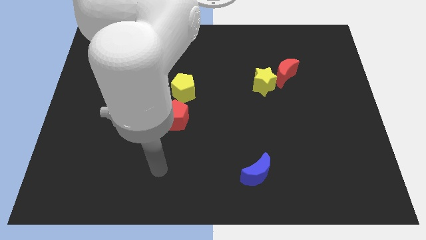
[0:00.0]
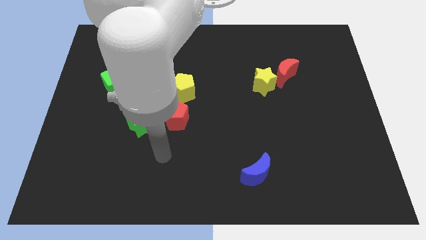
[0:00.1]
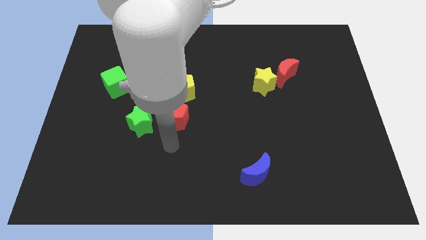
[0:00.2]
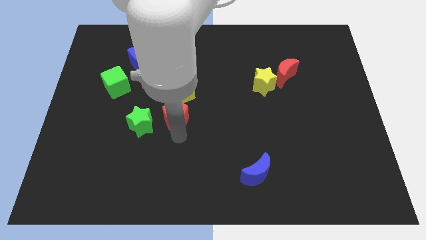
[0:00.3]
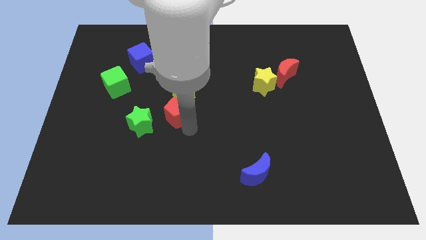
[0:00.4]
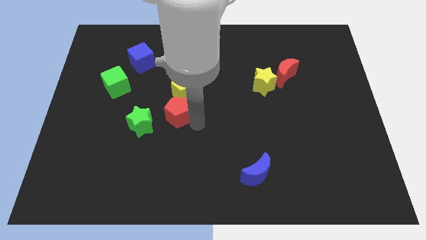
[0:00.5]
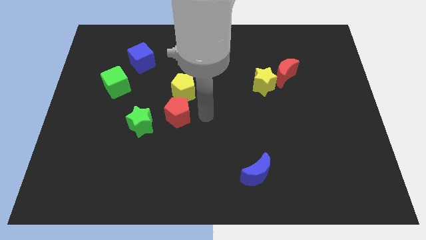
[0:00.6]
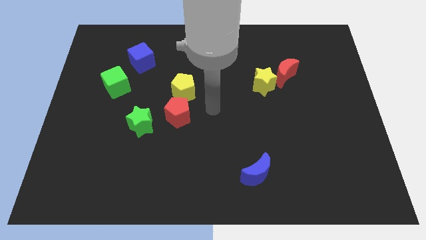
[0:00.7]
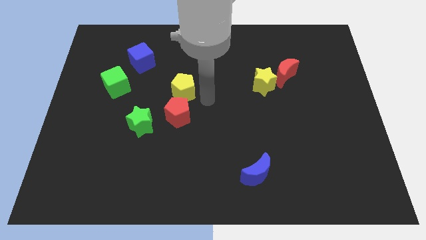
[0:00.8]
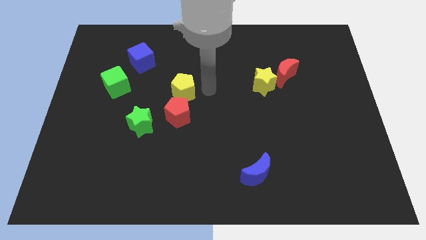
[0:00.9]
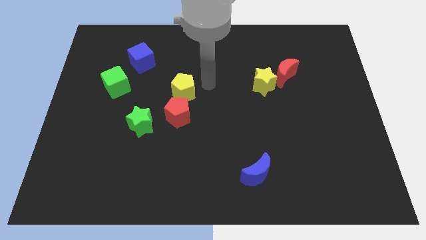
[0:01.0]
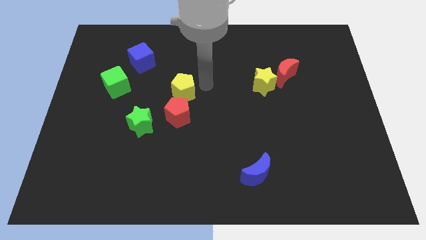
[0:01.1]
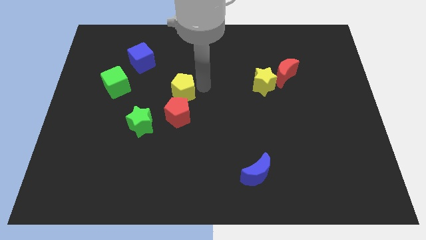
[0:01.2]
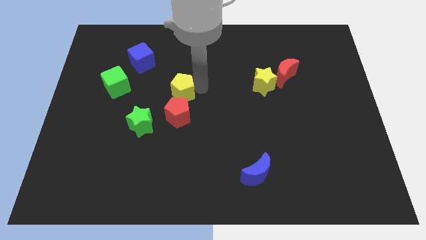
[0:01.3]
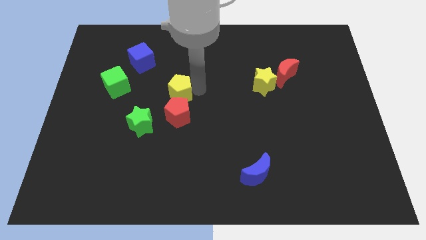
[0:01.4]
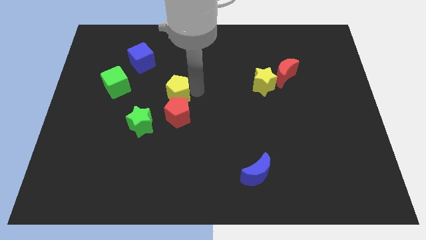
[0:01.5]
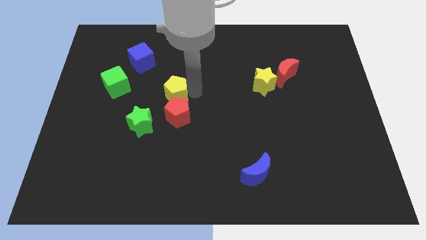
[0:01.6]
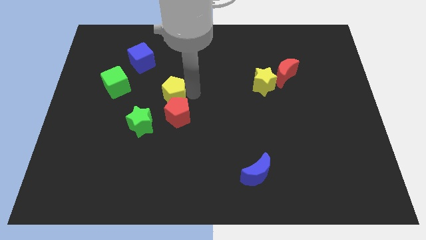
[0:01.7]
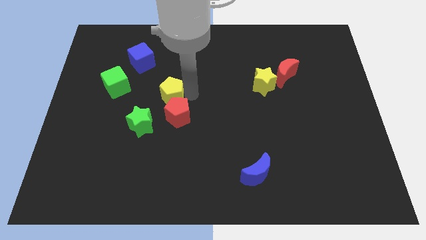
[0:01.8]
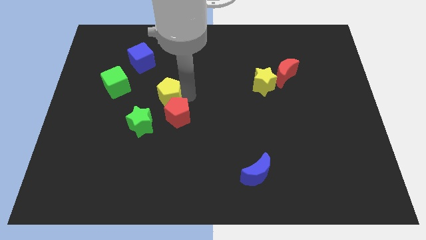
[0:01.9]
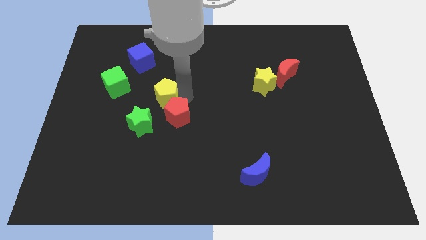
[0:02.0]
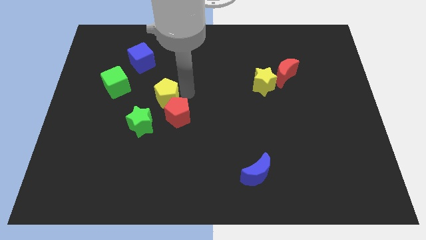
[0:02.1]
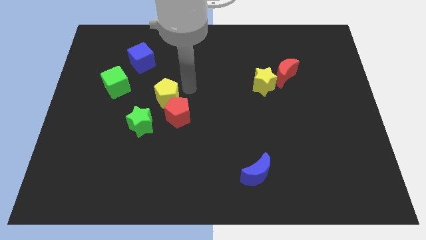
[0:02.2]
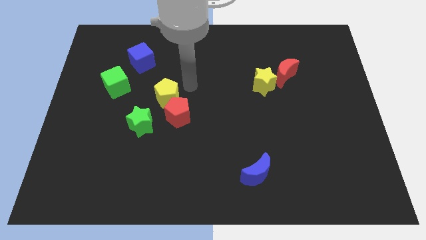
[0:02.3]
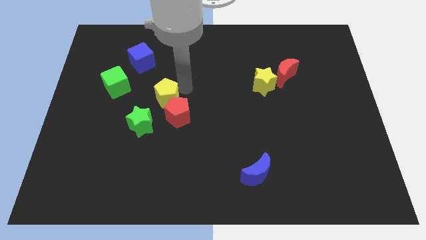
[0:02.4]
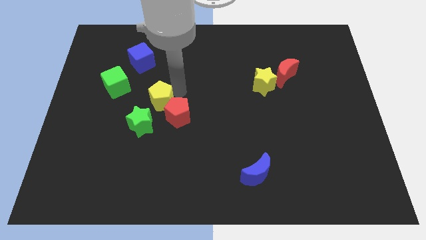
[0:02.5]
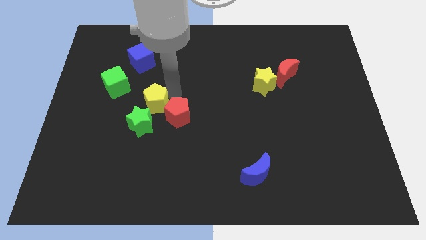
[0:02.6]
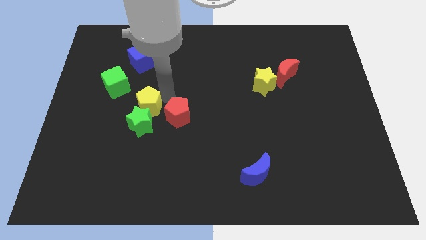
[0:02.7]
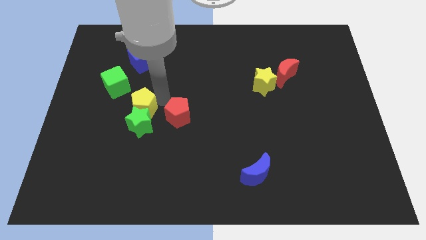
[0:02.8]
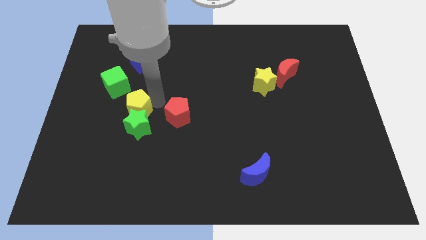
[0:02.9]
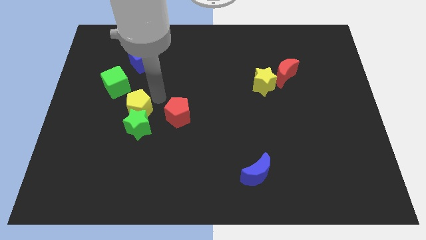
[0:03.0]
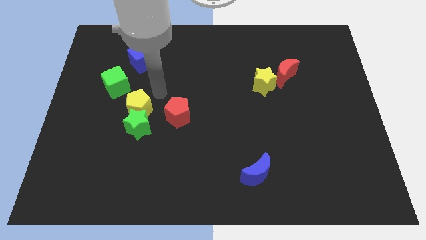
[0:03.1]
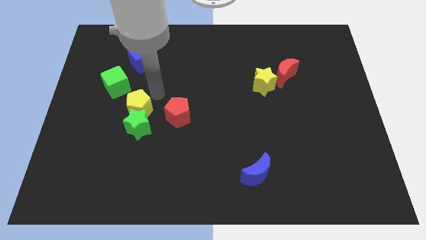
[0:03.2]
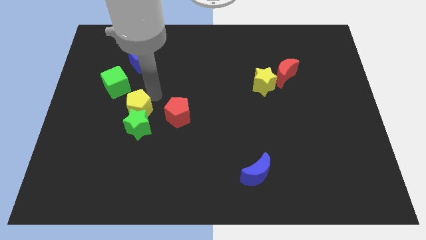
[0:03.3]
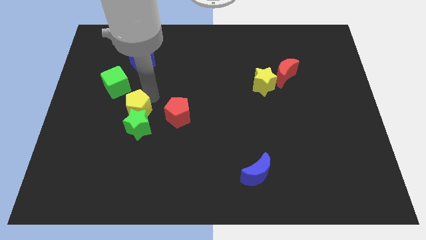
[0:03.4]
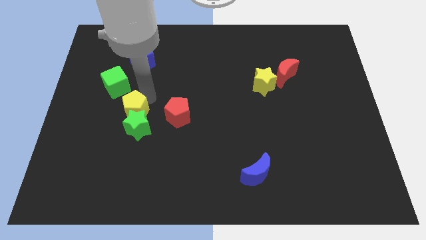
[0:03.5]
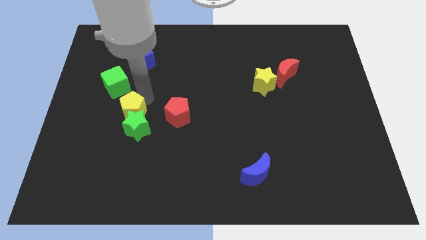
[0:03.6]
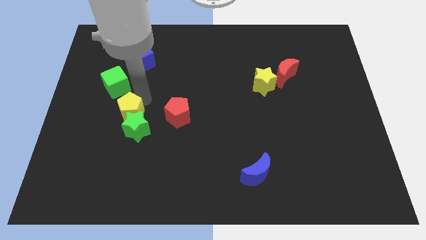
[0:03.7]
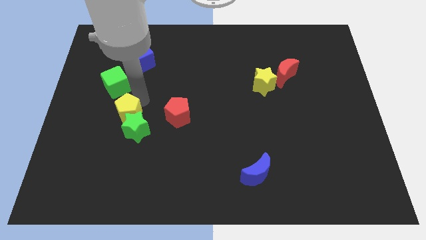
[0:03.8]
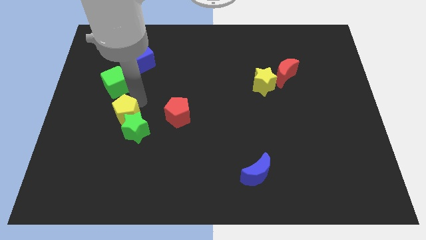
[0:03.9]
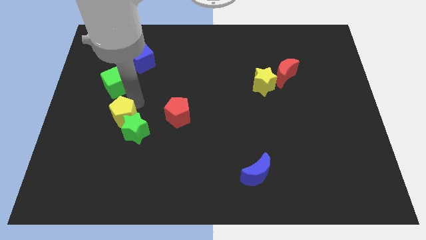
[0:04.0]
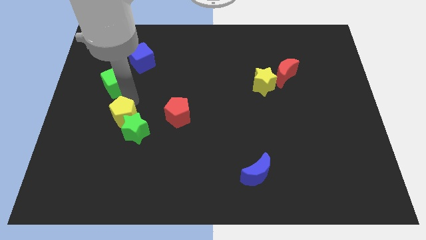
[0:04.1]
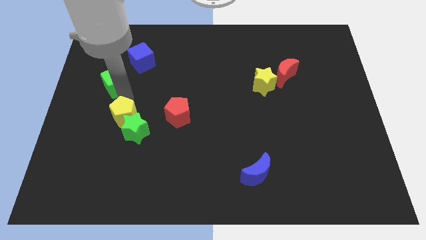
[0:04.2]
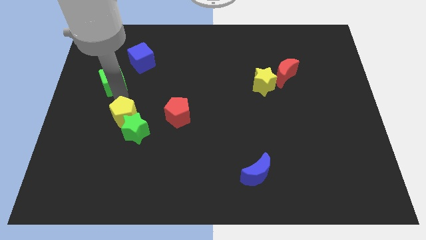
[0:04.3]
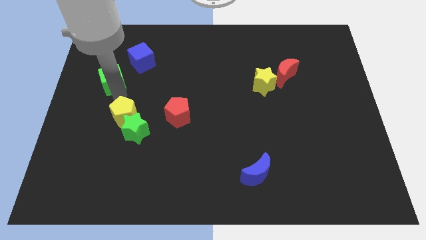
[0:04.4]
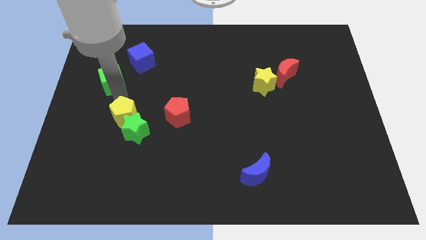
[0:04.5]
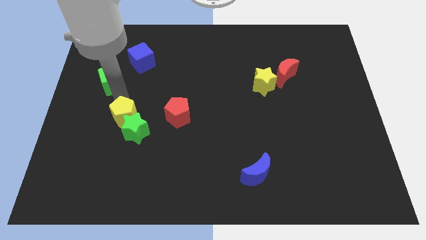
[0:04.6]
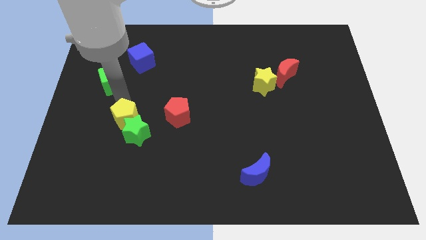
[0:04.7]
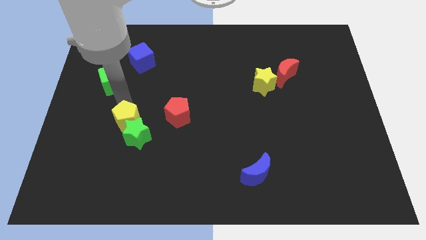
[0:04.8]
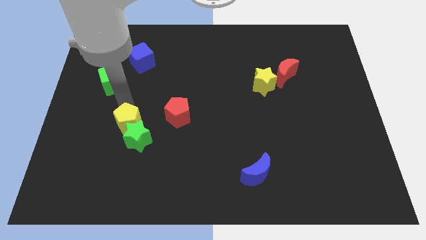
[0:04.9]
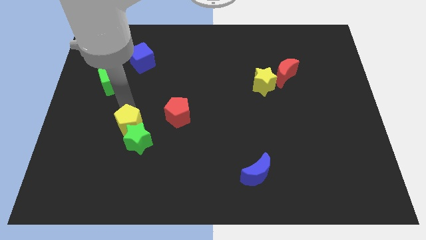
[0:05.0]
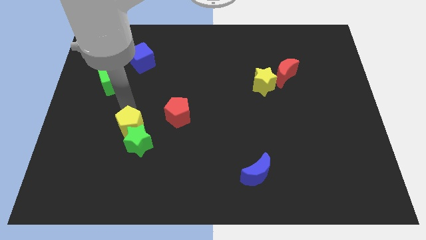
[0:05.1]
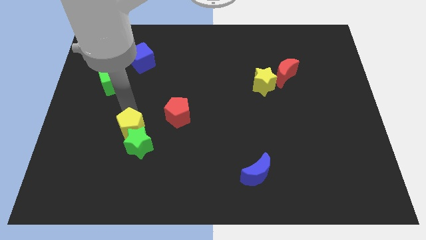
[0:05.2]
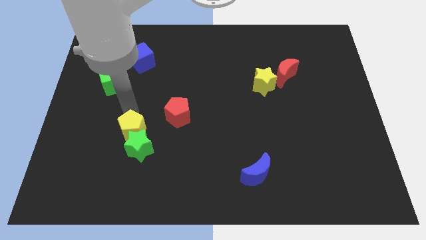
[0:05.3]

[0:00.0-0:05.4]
slide the yellow pentagon to the bottom left of the red pentagon

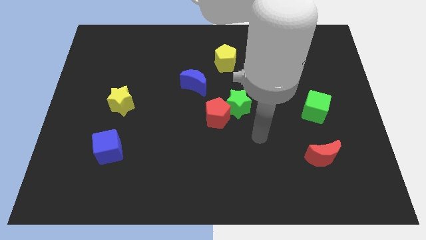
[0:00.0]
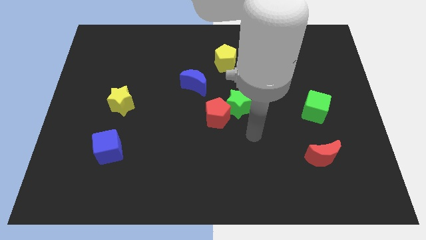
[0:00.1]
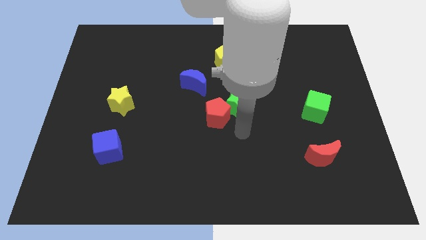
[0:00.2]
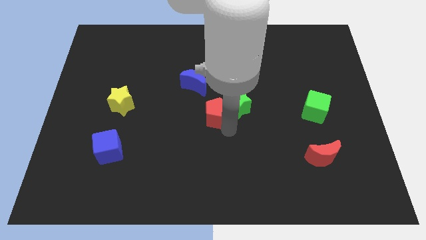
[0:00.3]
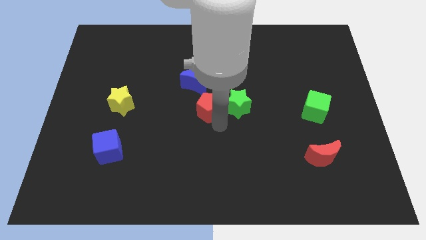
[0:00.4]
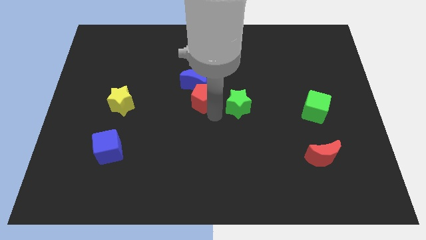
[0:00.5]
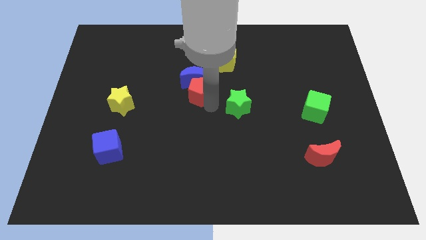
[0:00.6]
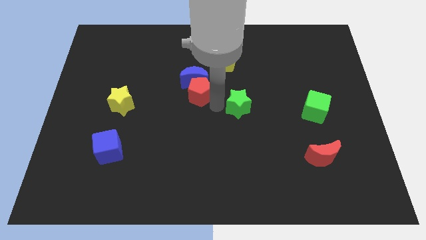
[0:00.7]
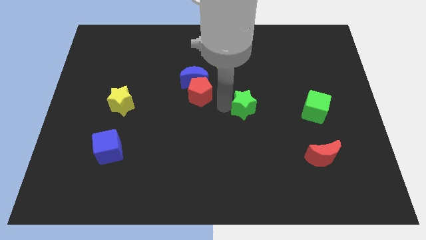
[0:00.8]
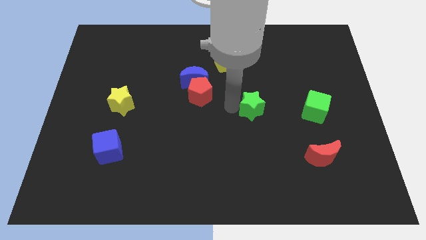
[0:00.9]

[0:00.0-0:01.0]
put the green star to the left side of the green cube
